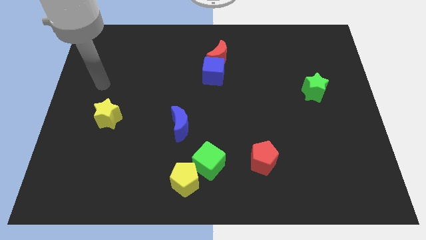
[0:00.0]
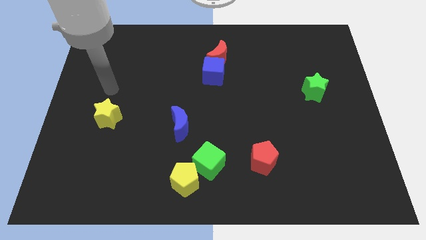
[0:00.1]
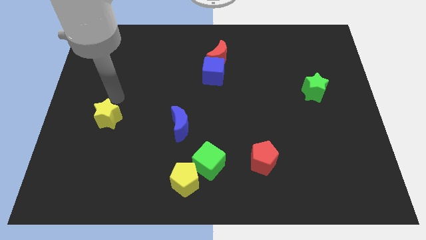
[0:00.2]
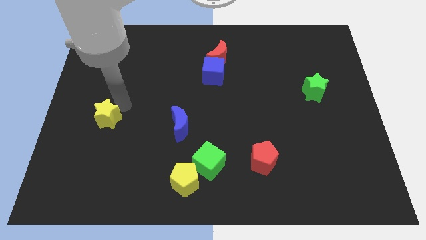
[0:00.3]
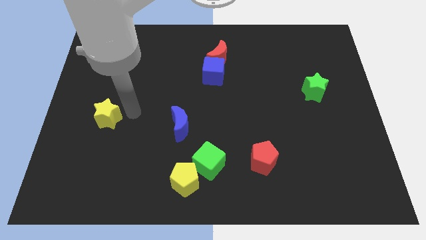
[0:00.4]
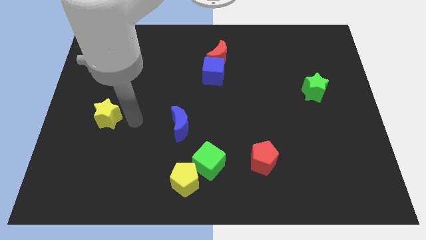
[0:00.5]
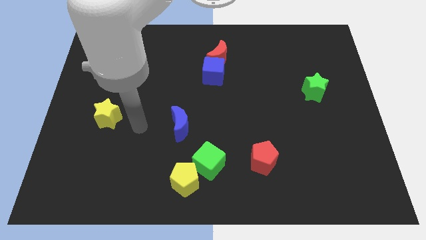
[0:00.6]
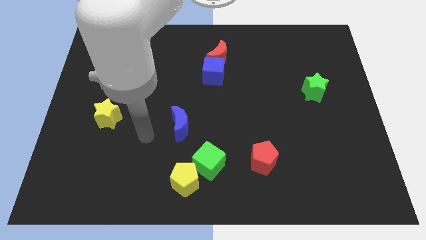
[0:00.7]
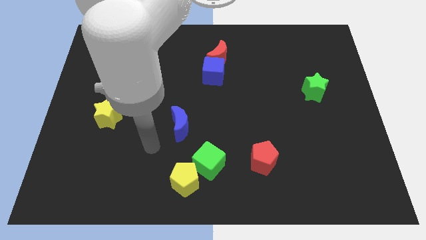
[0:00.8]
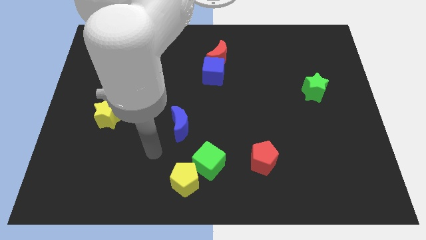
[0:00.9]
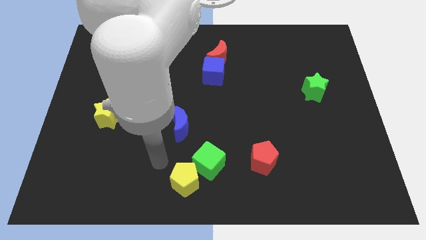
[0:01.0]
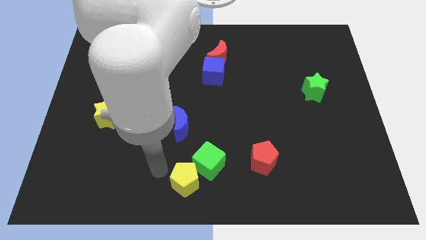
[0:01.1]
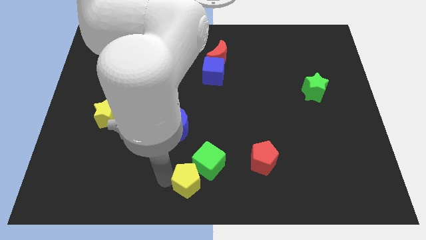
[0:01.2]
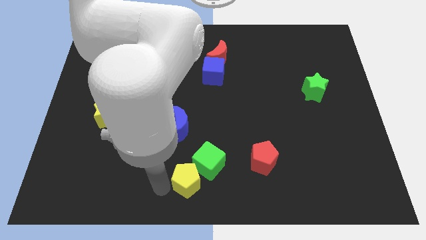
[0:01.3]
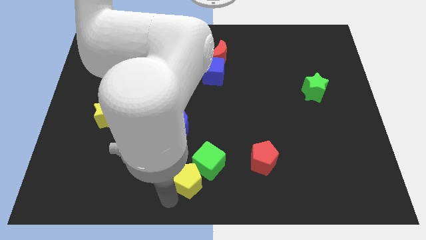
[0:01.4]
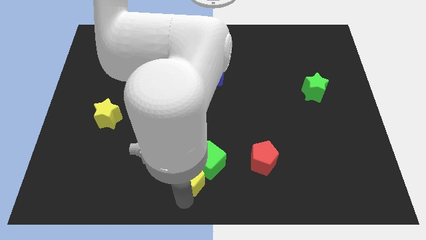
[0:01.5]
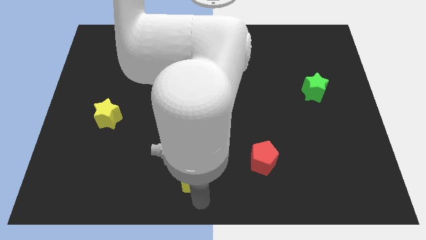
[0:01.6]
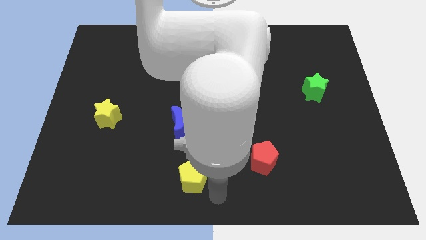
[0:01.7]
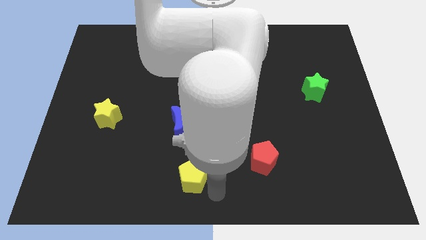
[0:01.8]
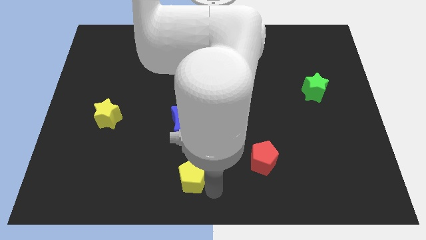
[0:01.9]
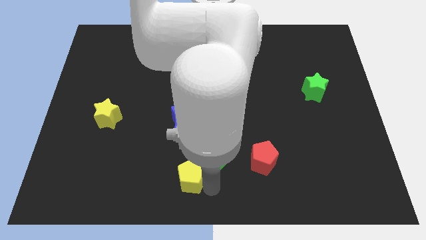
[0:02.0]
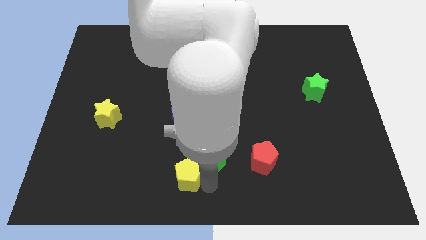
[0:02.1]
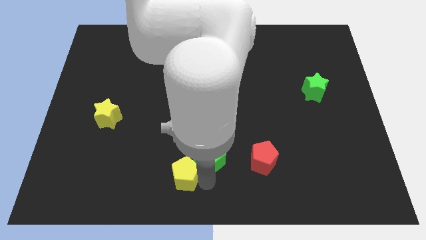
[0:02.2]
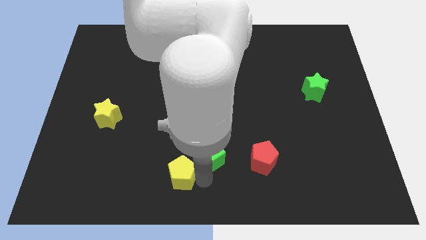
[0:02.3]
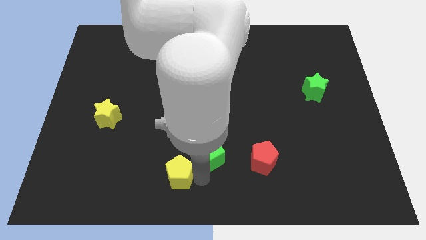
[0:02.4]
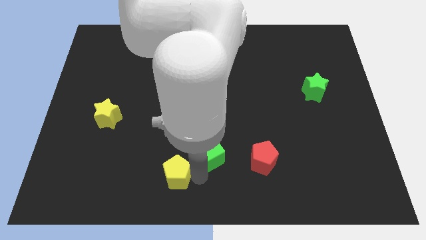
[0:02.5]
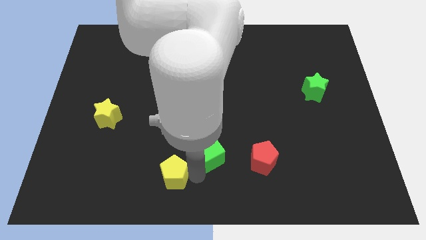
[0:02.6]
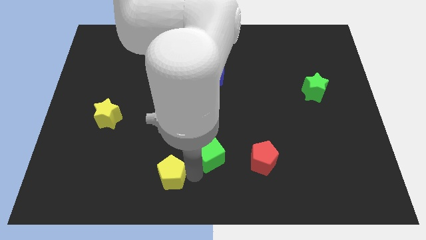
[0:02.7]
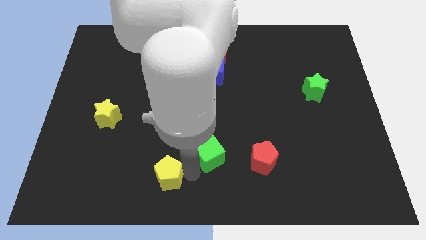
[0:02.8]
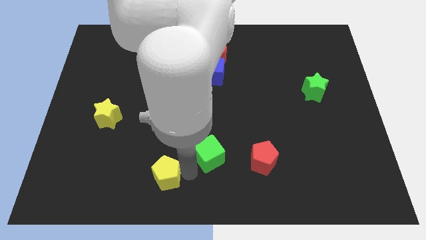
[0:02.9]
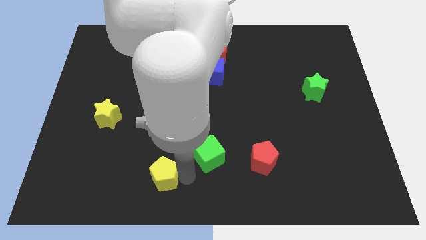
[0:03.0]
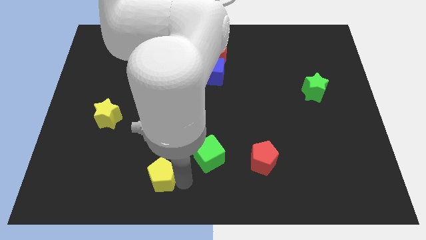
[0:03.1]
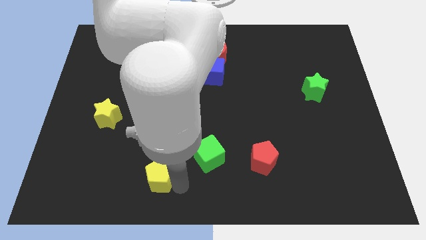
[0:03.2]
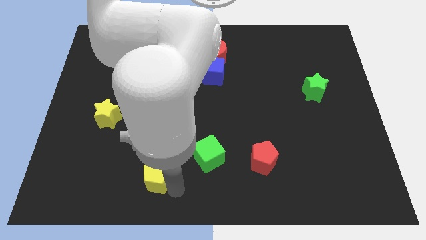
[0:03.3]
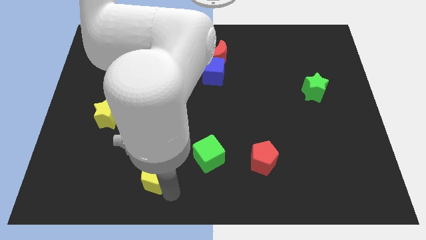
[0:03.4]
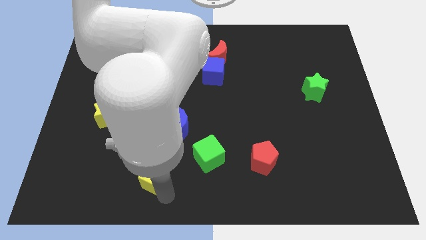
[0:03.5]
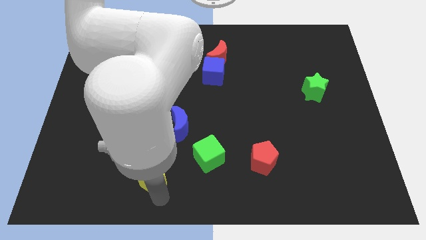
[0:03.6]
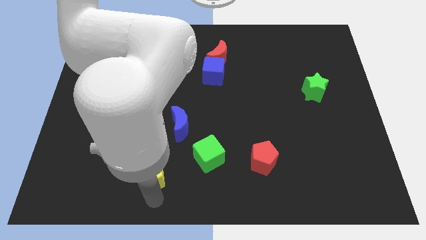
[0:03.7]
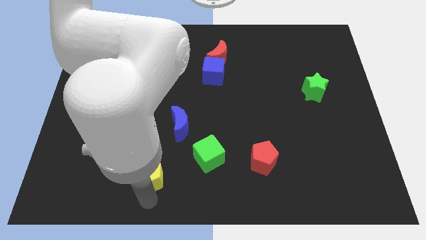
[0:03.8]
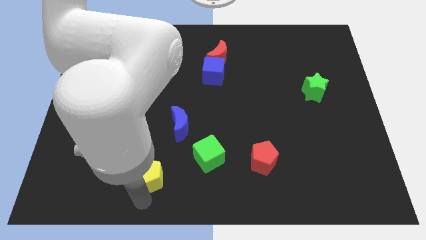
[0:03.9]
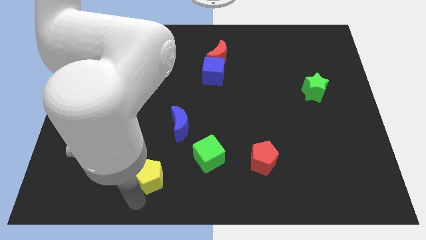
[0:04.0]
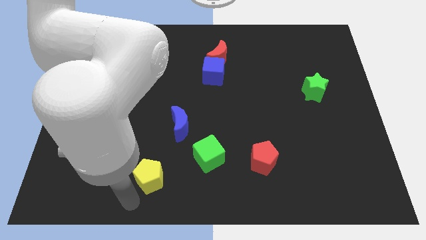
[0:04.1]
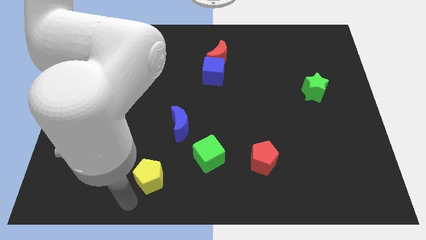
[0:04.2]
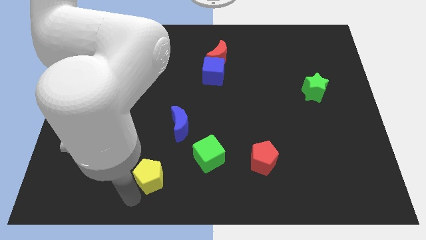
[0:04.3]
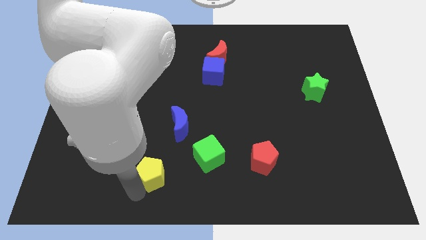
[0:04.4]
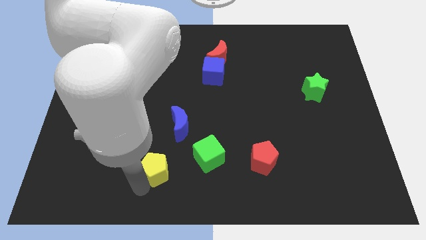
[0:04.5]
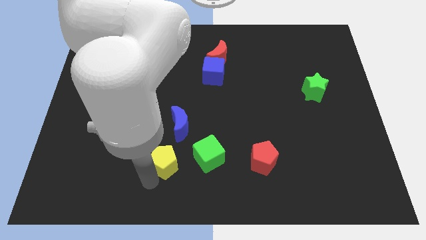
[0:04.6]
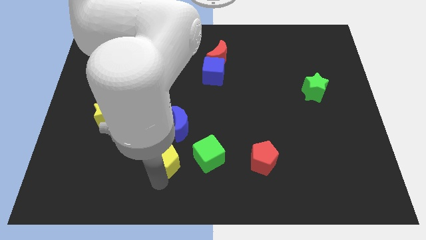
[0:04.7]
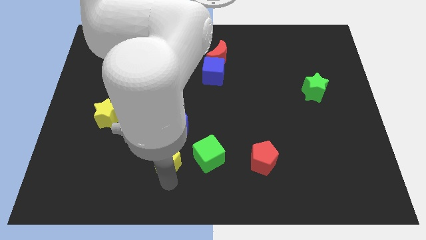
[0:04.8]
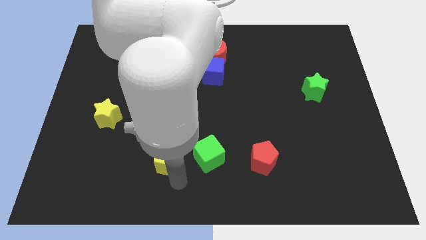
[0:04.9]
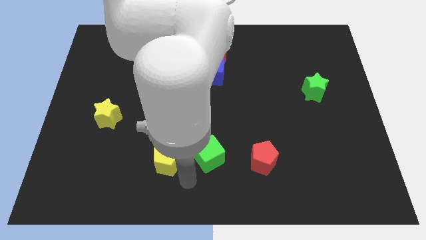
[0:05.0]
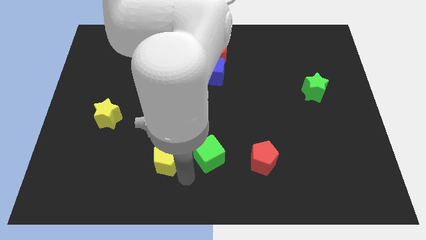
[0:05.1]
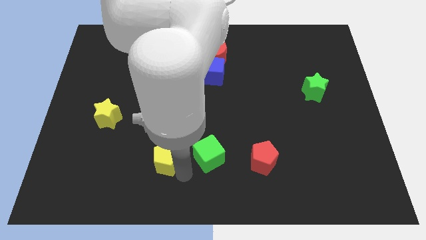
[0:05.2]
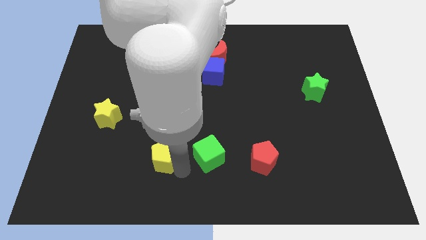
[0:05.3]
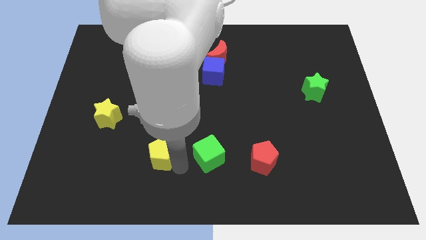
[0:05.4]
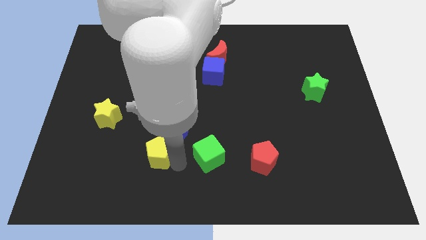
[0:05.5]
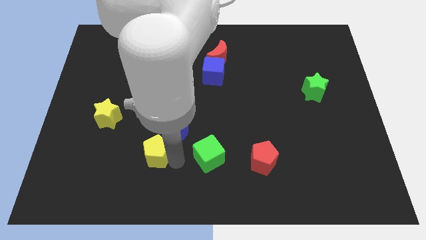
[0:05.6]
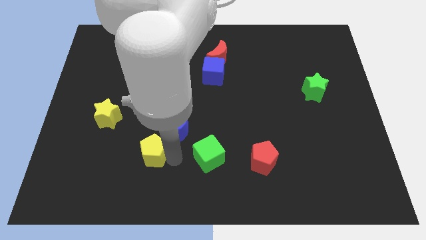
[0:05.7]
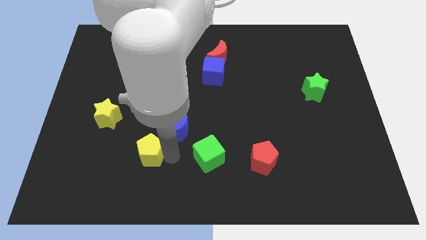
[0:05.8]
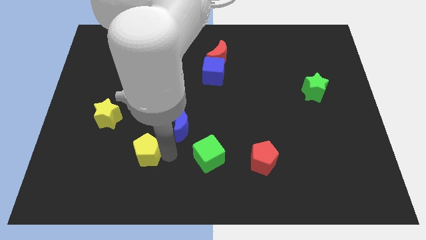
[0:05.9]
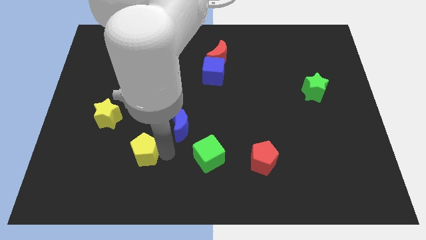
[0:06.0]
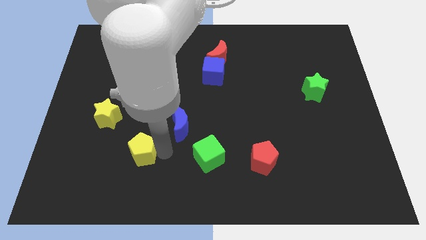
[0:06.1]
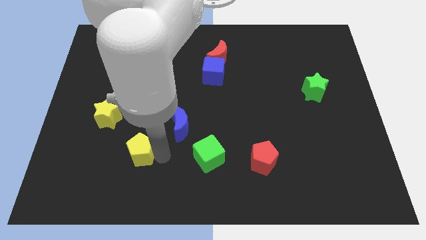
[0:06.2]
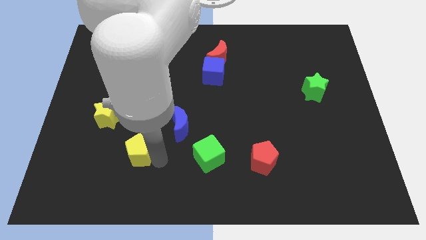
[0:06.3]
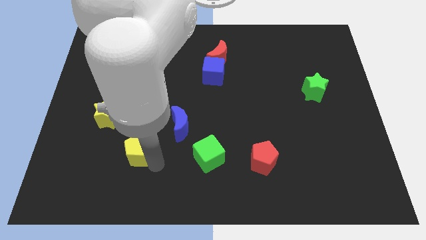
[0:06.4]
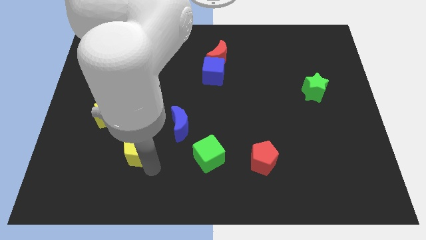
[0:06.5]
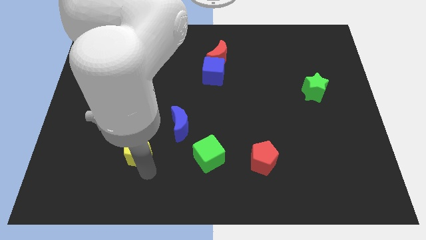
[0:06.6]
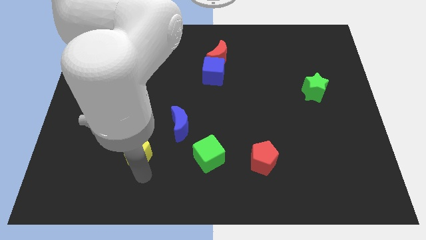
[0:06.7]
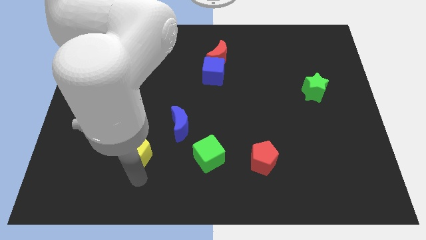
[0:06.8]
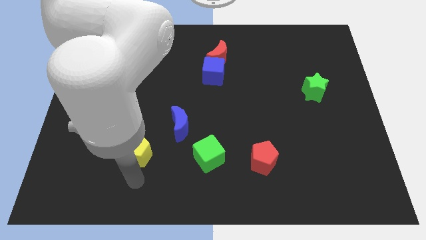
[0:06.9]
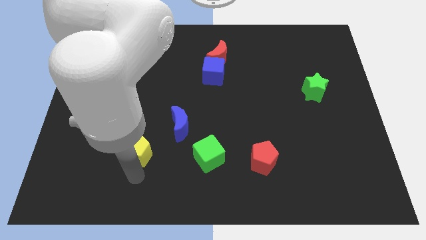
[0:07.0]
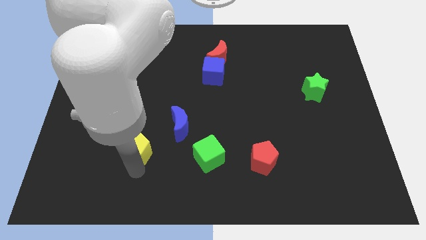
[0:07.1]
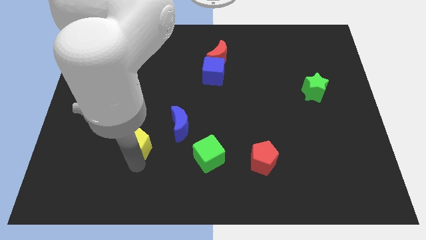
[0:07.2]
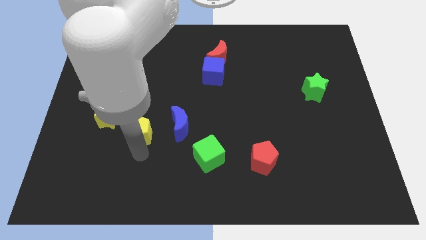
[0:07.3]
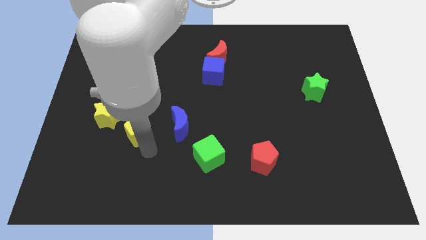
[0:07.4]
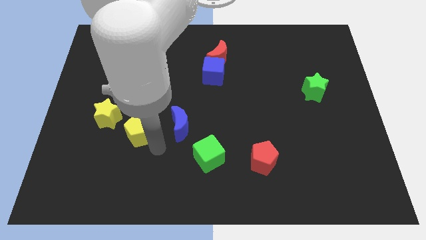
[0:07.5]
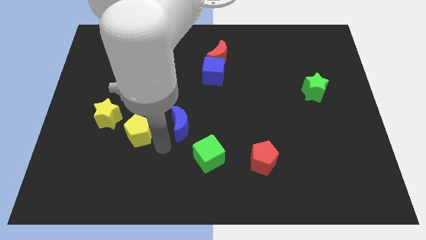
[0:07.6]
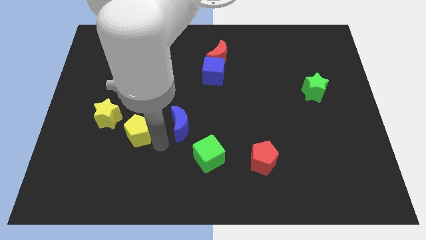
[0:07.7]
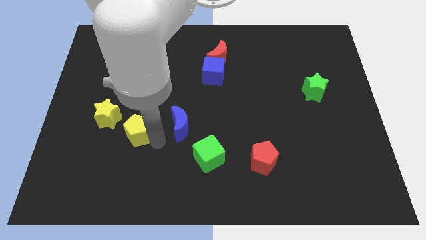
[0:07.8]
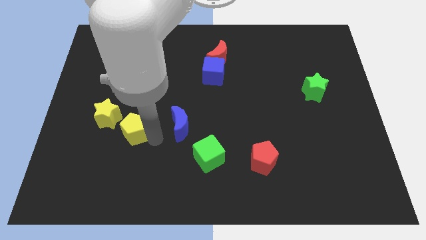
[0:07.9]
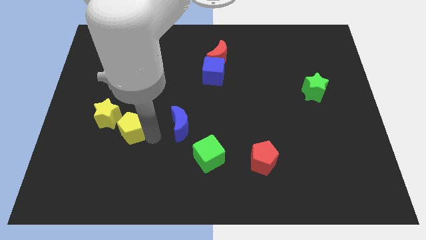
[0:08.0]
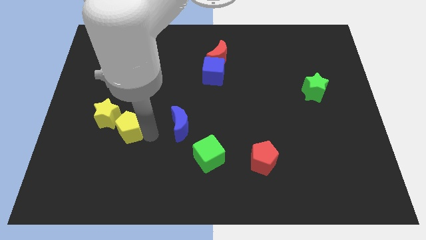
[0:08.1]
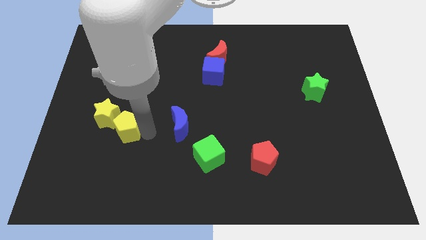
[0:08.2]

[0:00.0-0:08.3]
put the yellow pentagon towards the yellow star
